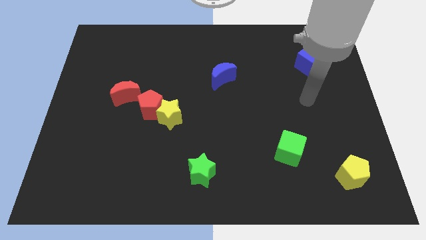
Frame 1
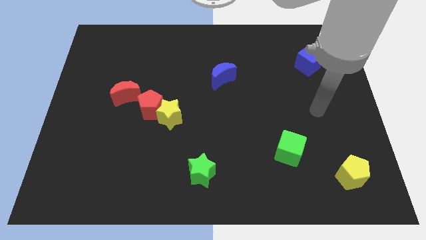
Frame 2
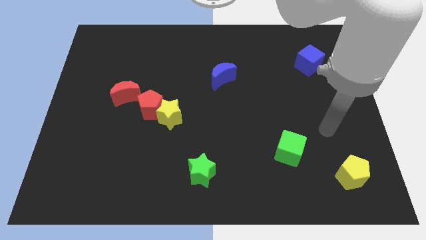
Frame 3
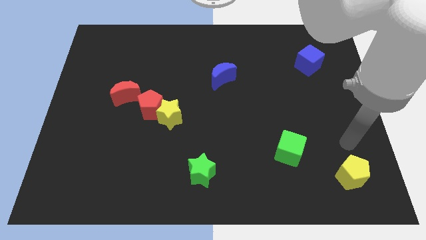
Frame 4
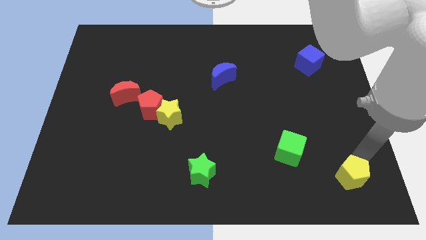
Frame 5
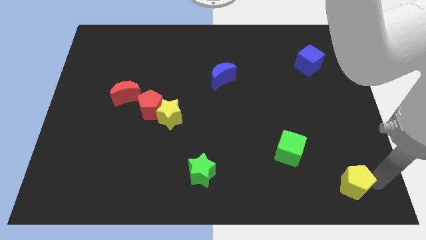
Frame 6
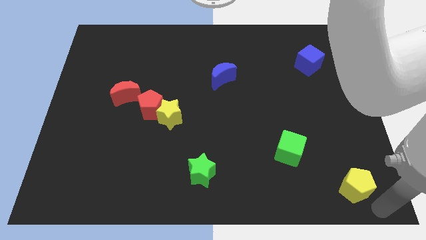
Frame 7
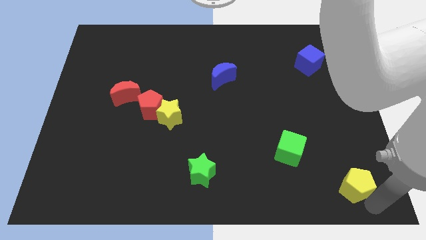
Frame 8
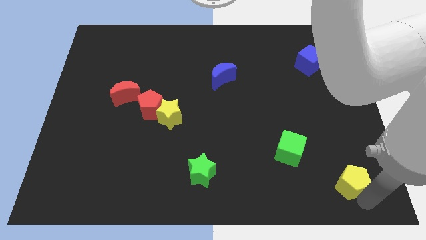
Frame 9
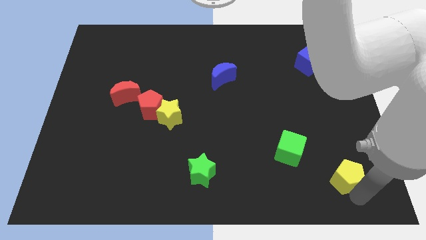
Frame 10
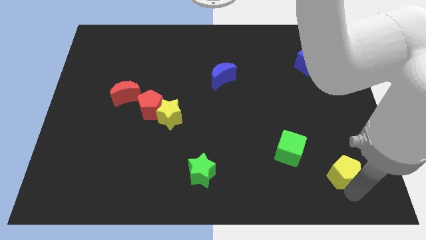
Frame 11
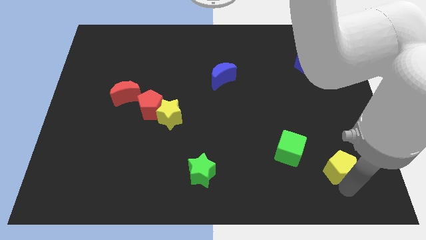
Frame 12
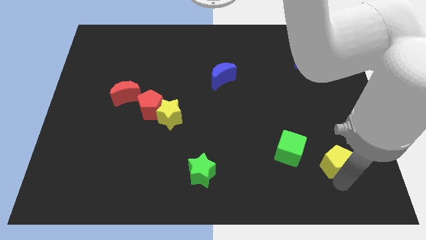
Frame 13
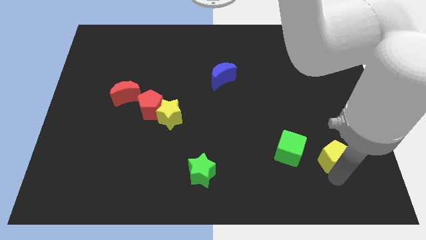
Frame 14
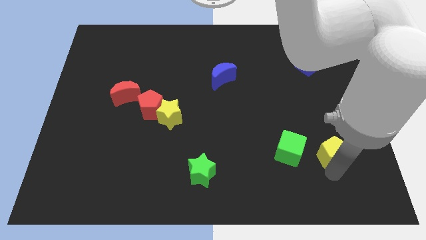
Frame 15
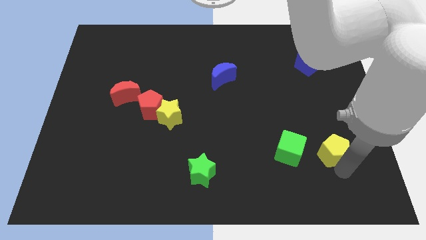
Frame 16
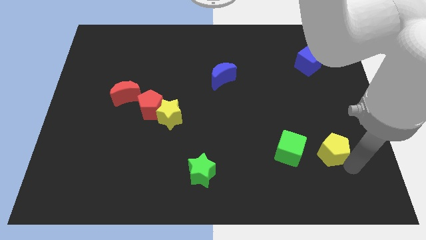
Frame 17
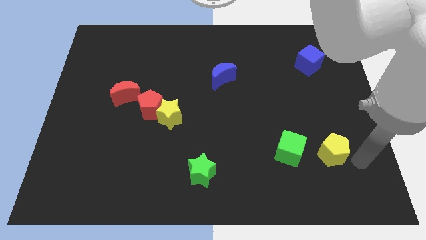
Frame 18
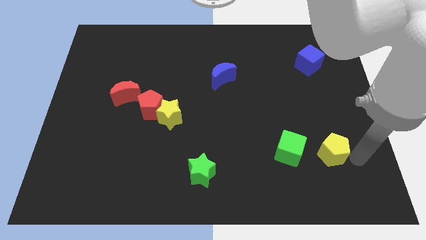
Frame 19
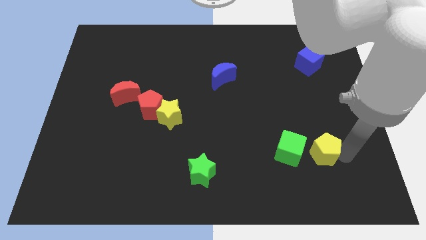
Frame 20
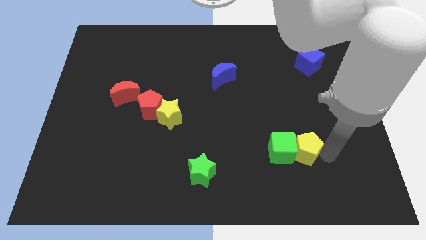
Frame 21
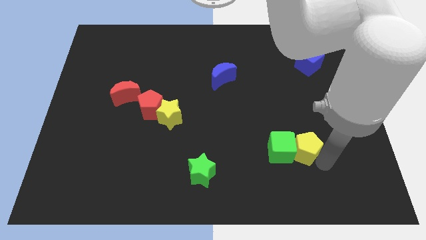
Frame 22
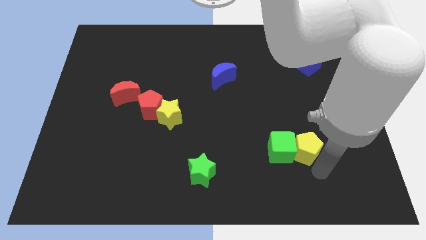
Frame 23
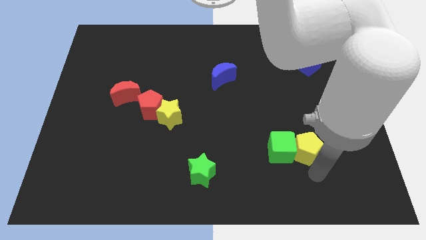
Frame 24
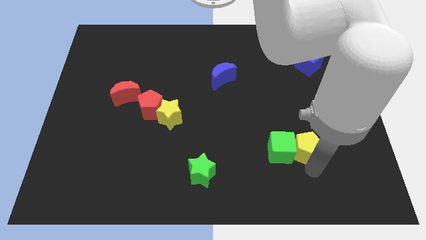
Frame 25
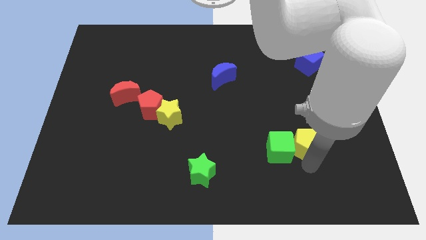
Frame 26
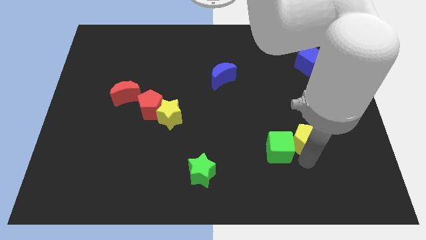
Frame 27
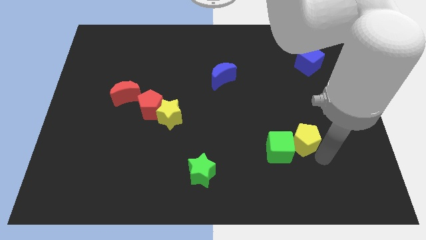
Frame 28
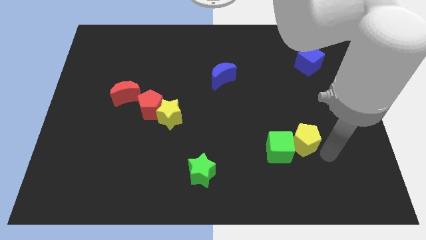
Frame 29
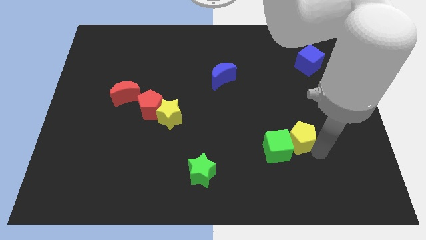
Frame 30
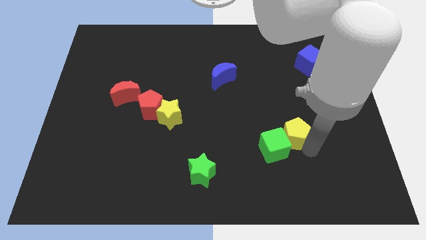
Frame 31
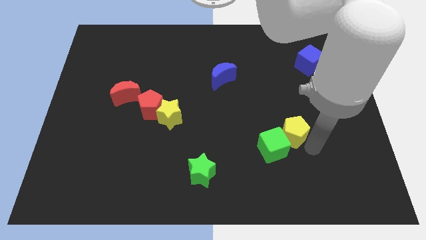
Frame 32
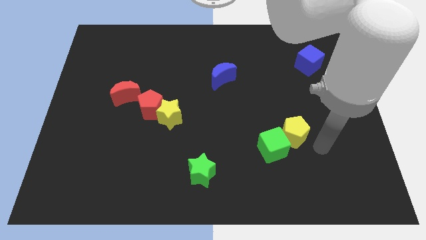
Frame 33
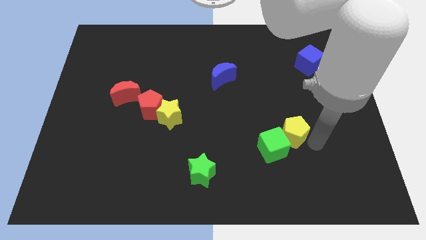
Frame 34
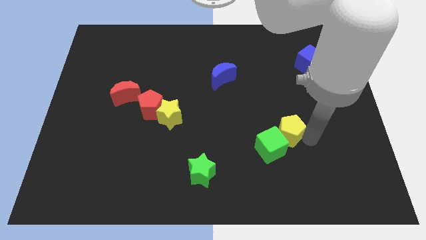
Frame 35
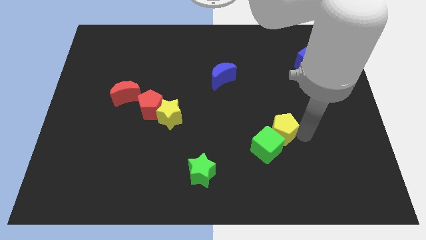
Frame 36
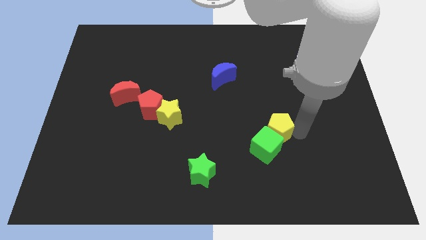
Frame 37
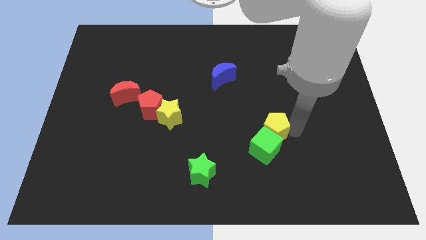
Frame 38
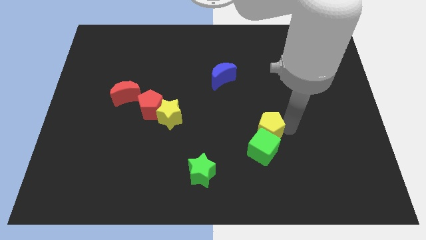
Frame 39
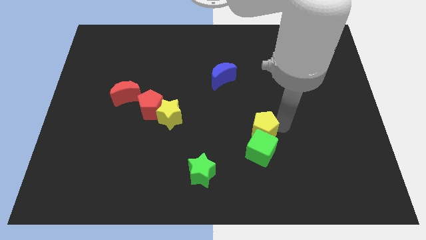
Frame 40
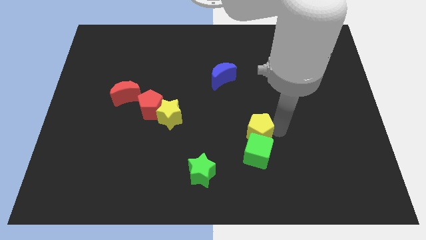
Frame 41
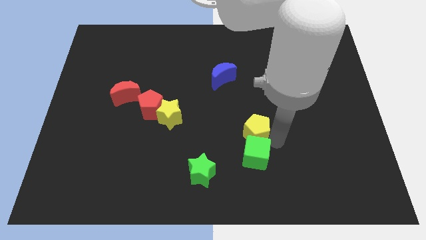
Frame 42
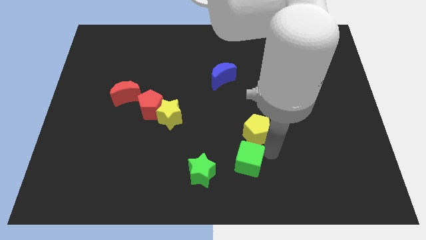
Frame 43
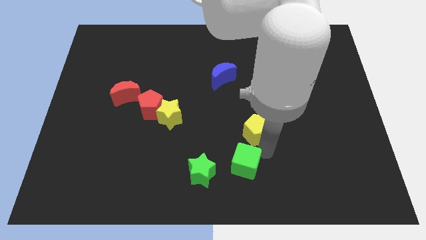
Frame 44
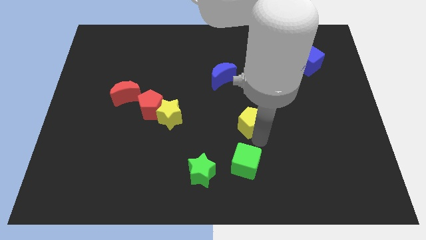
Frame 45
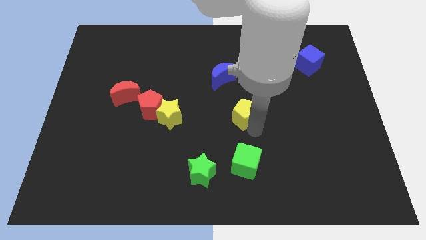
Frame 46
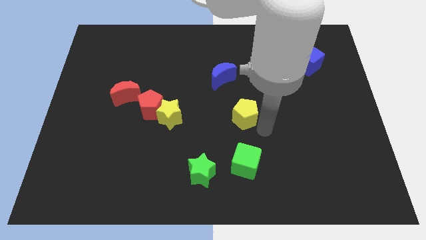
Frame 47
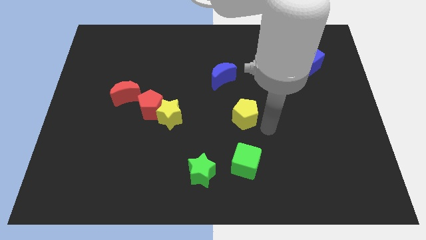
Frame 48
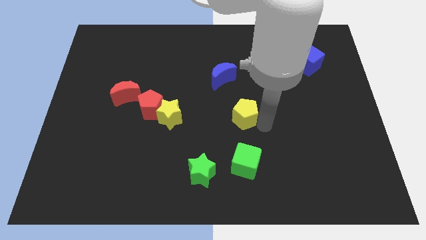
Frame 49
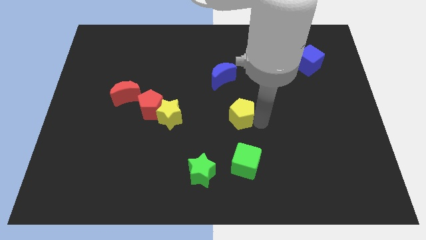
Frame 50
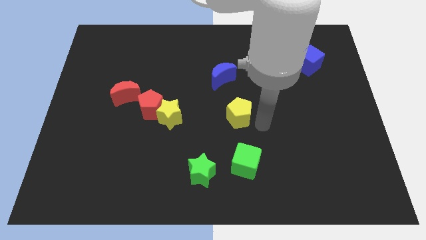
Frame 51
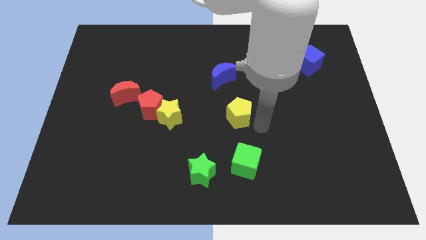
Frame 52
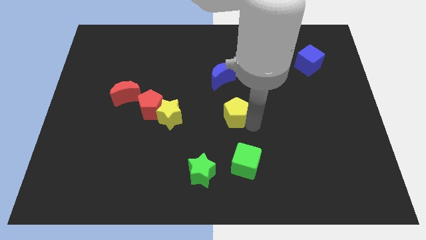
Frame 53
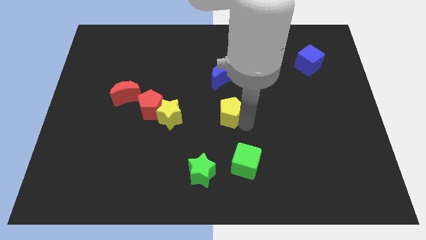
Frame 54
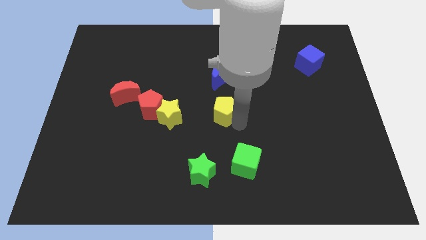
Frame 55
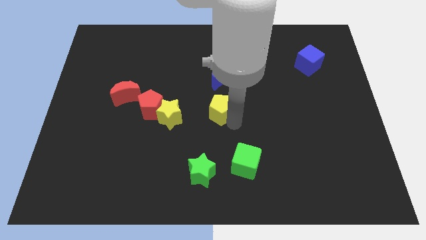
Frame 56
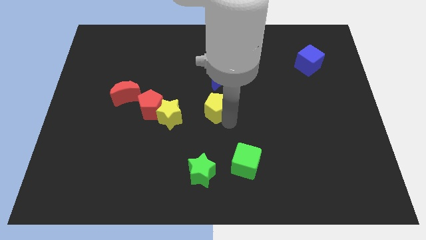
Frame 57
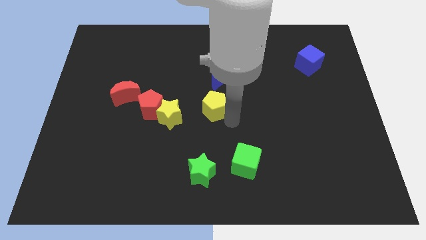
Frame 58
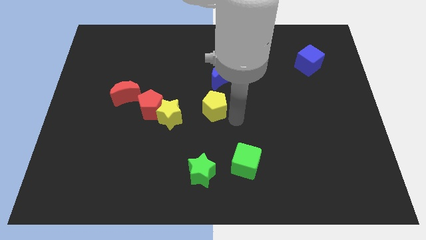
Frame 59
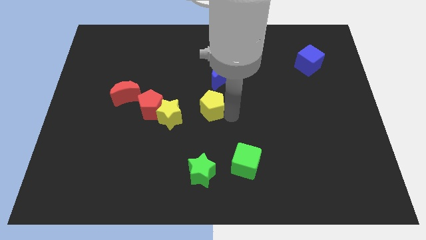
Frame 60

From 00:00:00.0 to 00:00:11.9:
push the yellow pentagon to the top right of the yellow star

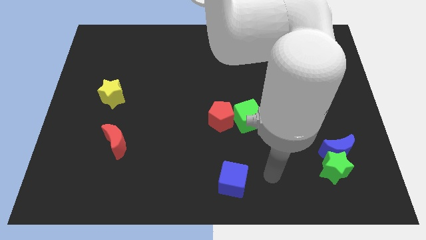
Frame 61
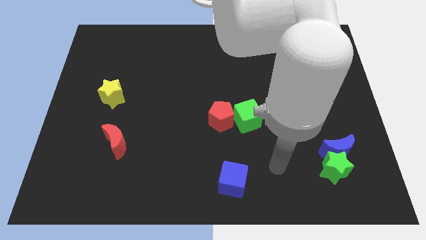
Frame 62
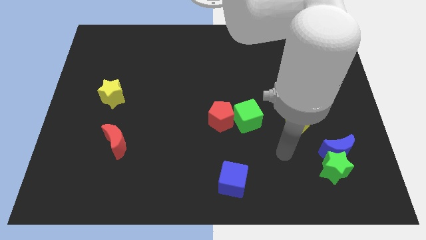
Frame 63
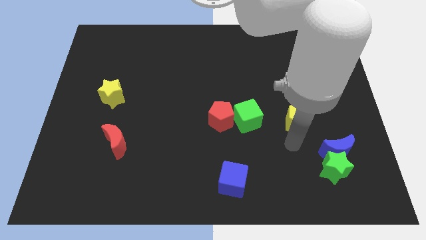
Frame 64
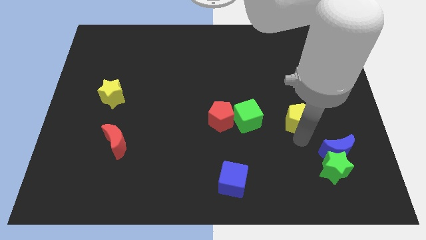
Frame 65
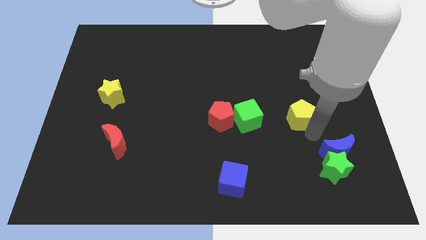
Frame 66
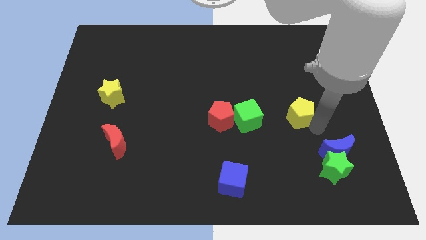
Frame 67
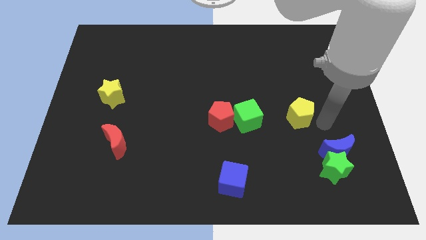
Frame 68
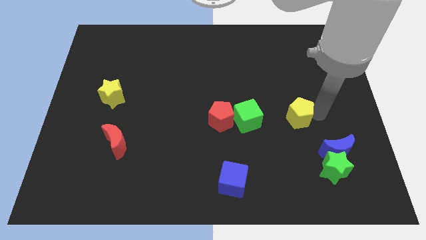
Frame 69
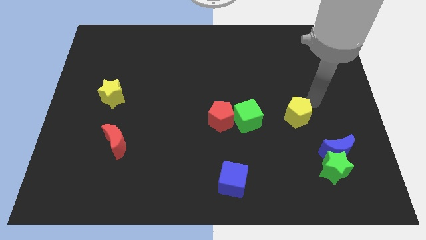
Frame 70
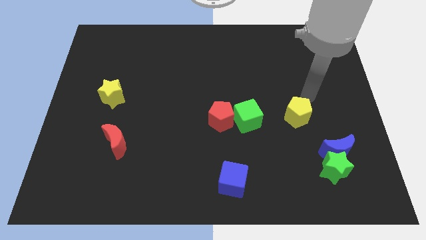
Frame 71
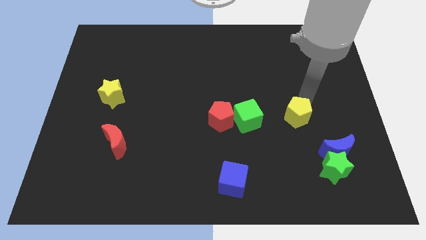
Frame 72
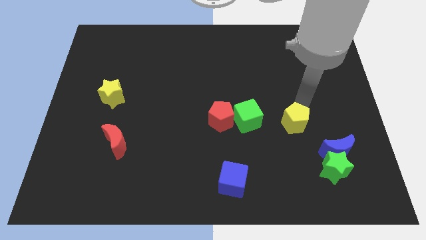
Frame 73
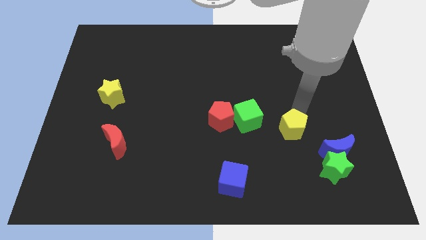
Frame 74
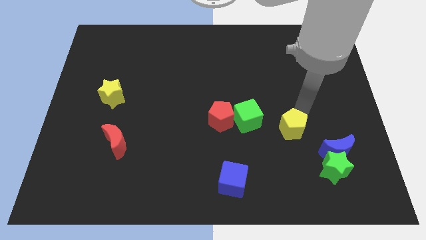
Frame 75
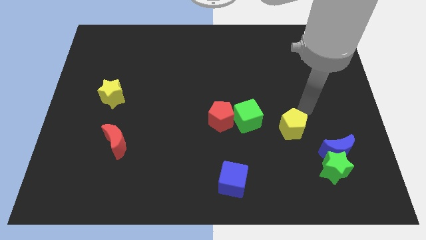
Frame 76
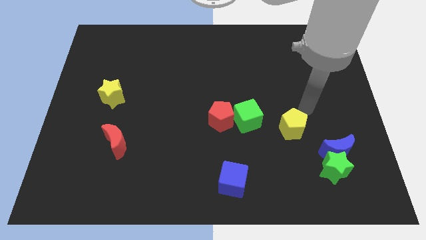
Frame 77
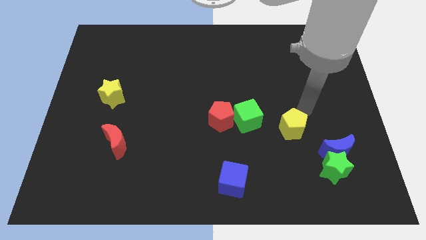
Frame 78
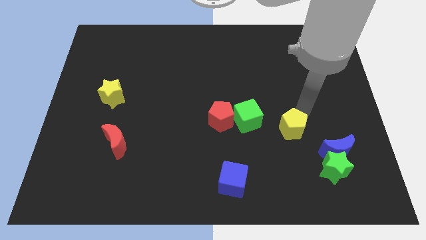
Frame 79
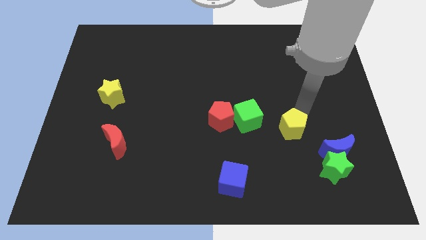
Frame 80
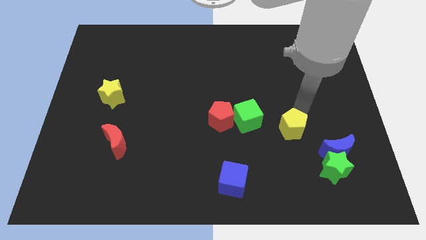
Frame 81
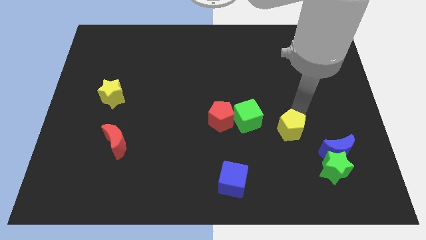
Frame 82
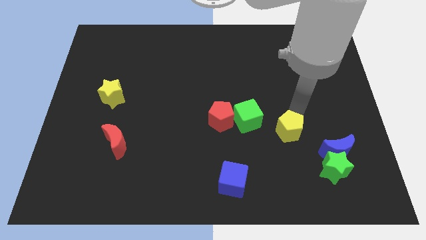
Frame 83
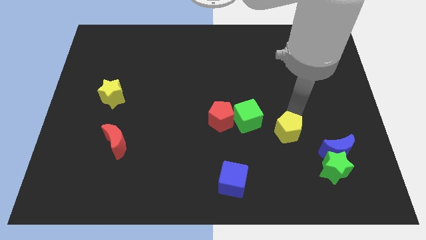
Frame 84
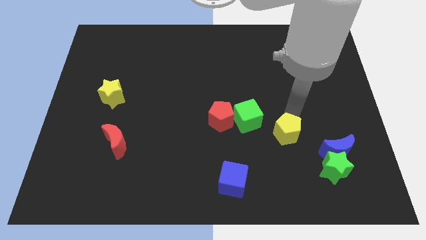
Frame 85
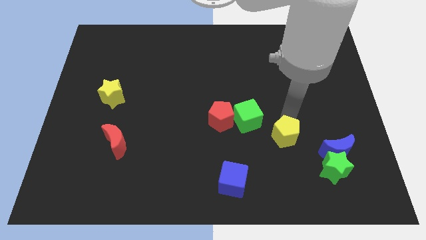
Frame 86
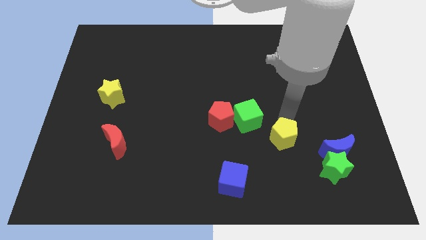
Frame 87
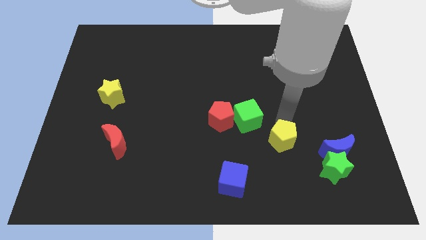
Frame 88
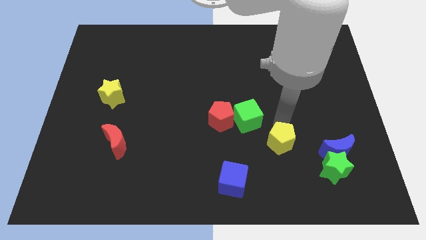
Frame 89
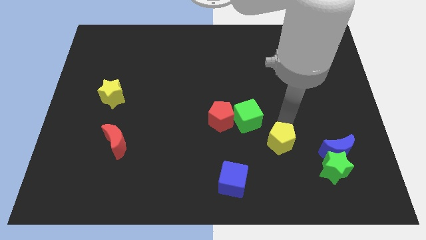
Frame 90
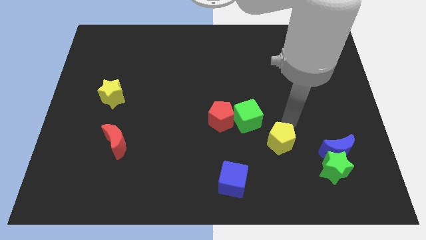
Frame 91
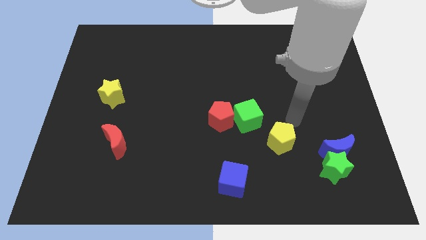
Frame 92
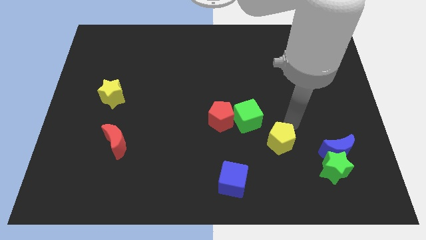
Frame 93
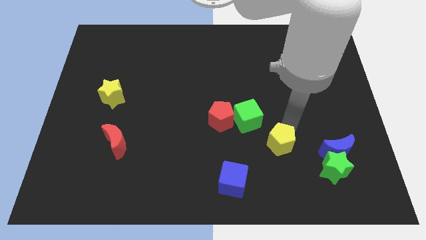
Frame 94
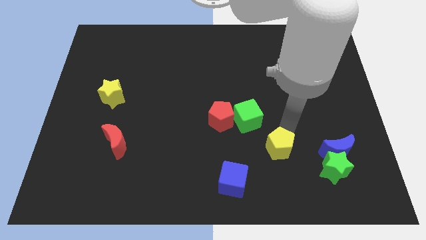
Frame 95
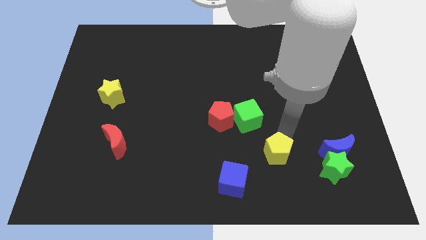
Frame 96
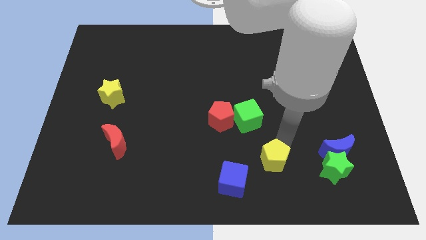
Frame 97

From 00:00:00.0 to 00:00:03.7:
move the yellow pentagon to the bottom of the green cube
